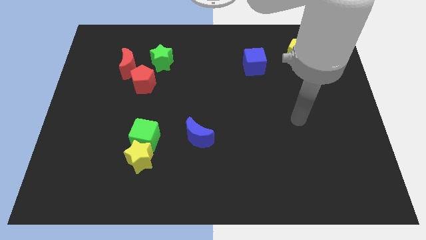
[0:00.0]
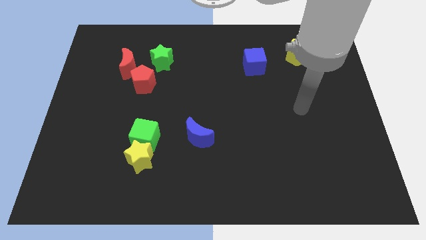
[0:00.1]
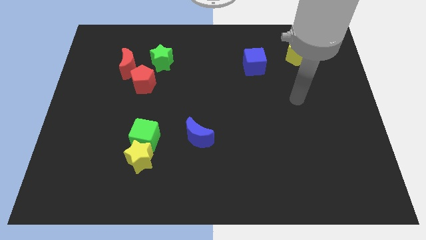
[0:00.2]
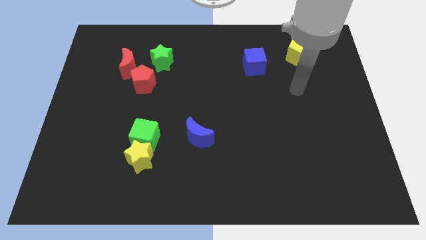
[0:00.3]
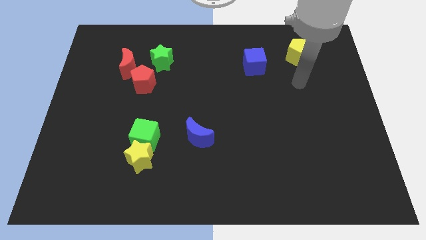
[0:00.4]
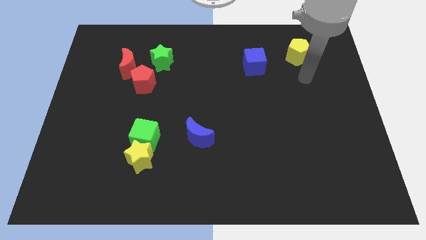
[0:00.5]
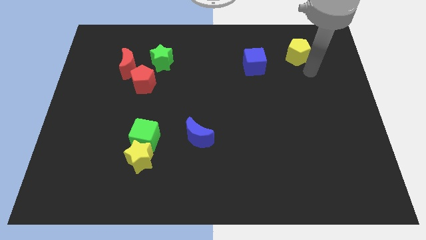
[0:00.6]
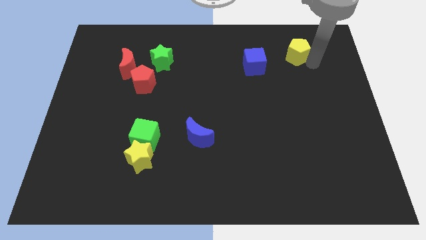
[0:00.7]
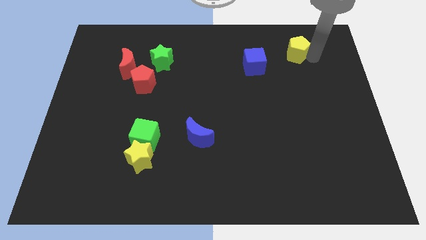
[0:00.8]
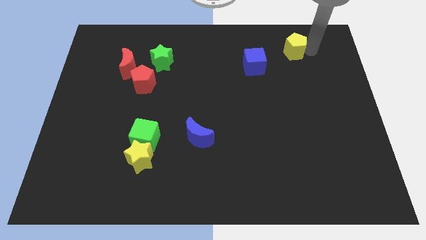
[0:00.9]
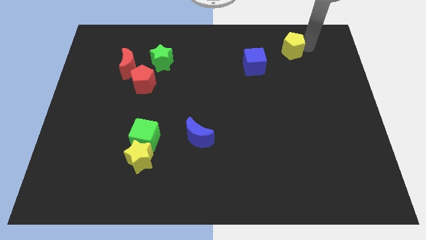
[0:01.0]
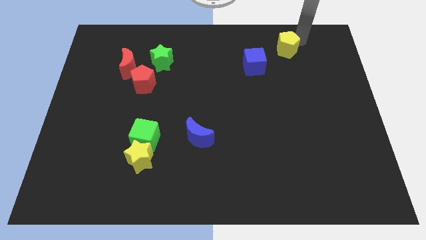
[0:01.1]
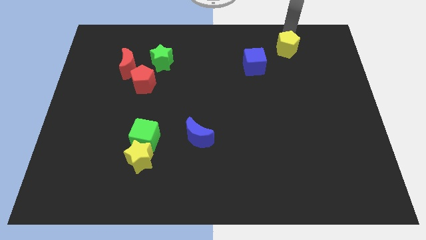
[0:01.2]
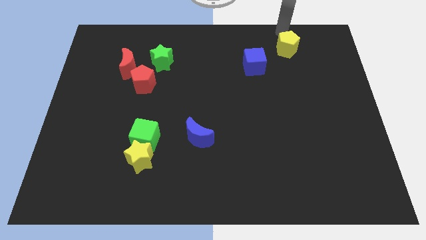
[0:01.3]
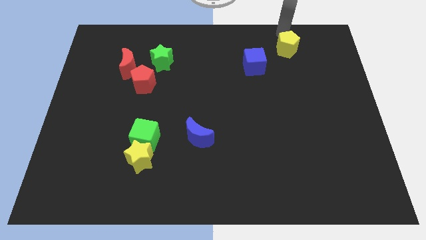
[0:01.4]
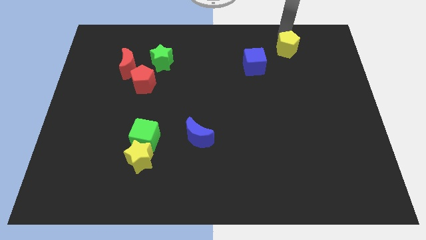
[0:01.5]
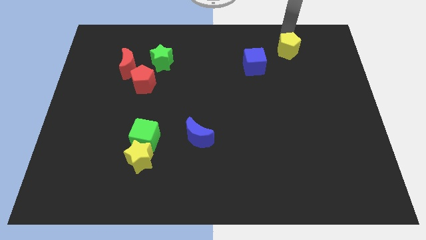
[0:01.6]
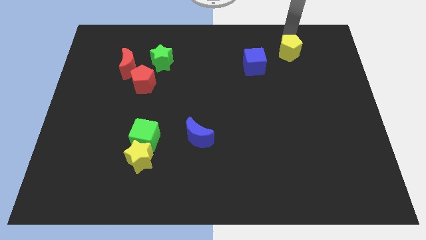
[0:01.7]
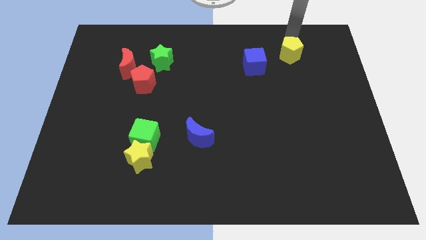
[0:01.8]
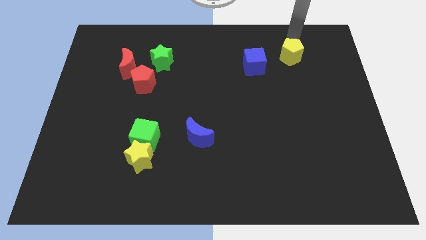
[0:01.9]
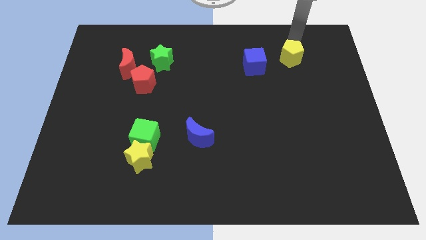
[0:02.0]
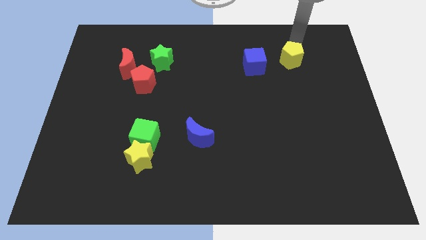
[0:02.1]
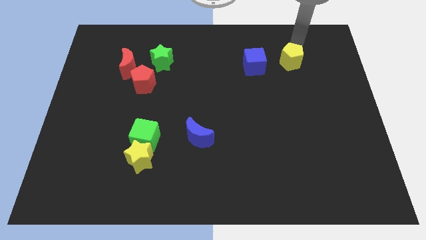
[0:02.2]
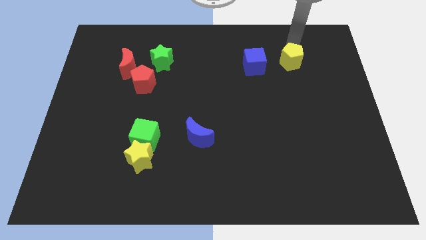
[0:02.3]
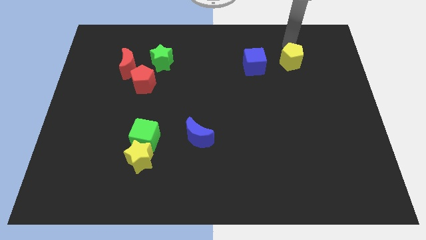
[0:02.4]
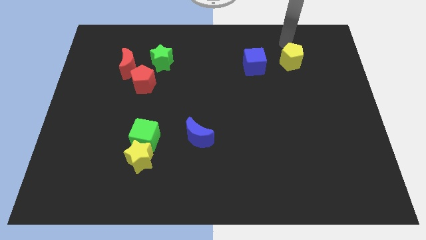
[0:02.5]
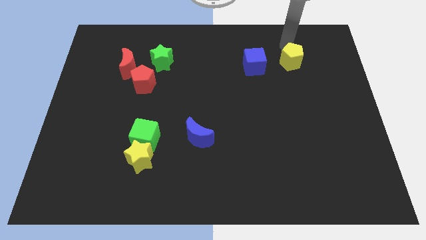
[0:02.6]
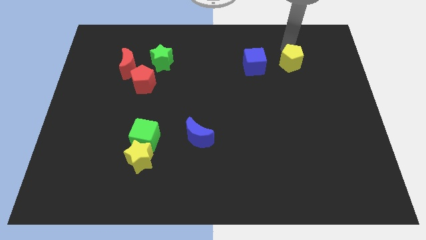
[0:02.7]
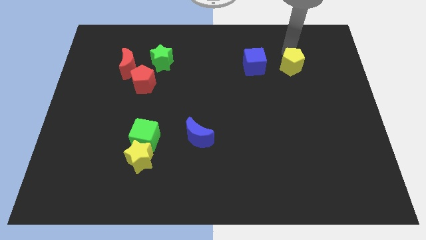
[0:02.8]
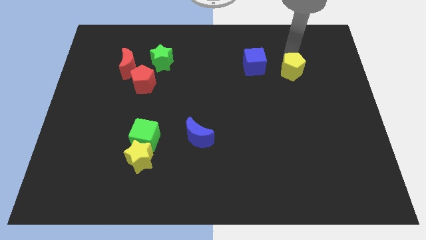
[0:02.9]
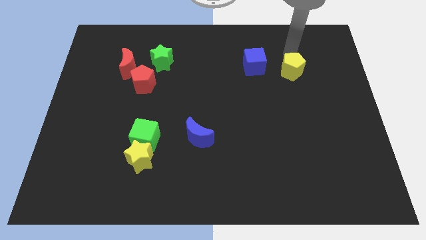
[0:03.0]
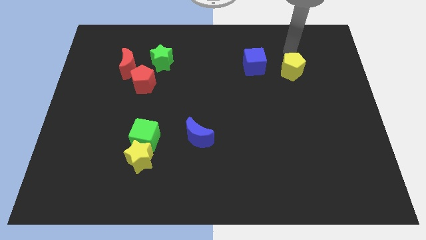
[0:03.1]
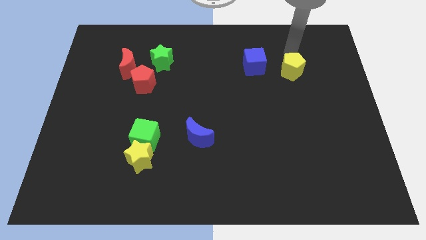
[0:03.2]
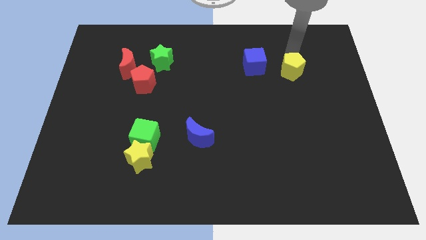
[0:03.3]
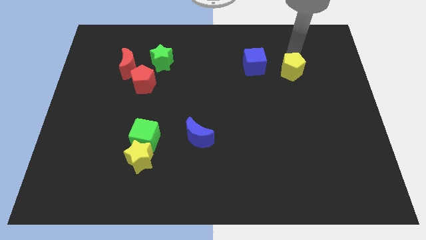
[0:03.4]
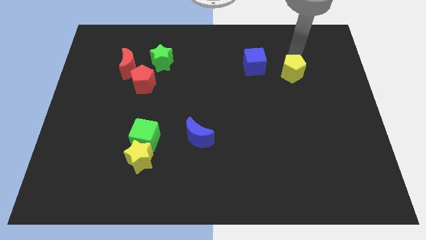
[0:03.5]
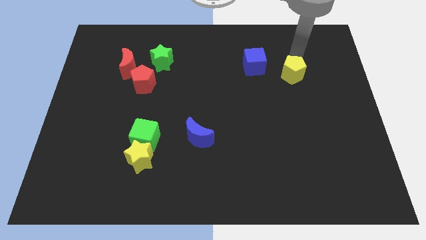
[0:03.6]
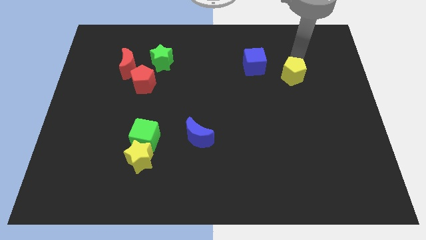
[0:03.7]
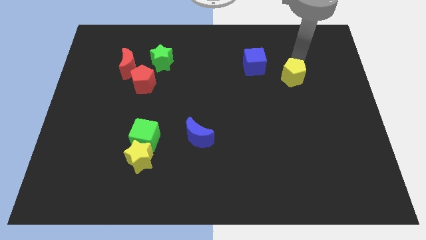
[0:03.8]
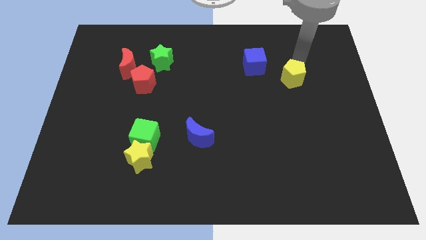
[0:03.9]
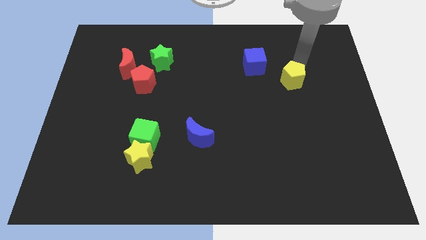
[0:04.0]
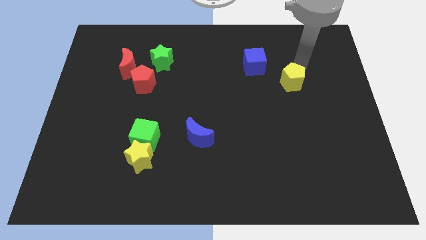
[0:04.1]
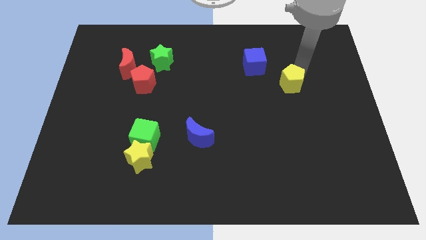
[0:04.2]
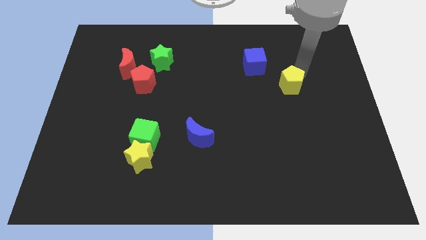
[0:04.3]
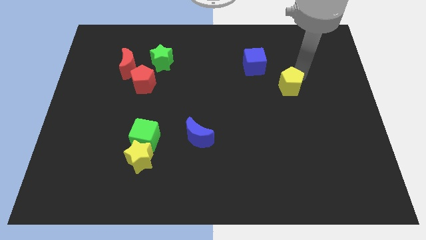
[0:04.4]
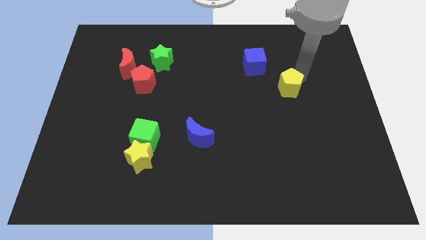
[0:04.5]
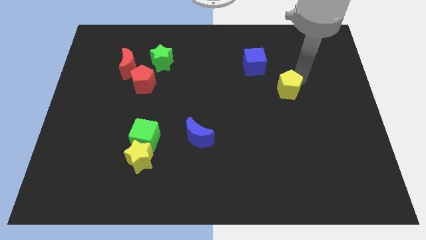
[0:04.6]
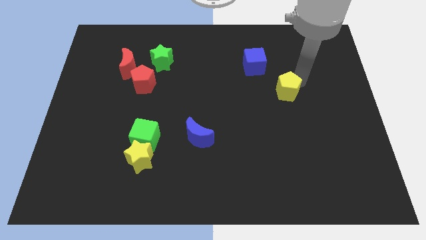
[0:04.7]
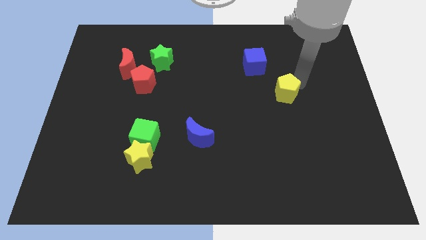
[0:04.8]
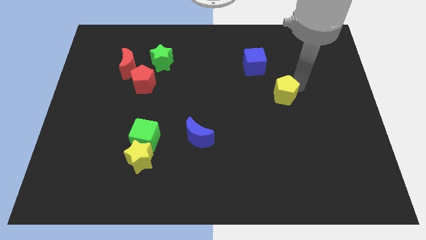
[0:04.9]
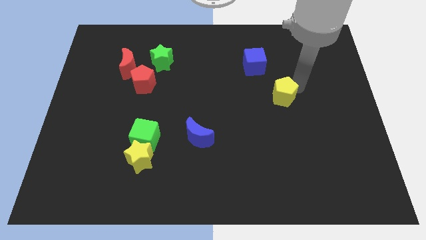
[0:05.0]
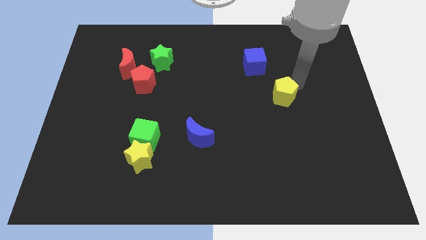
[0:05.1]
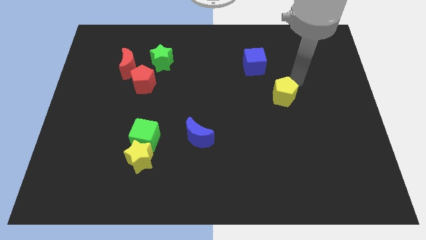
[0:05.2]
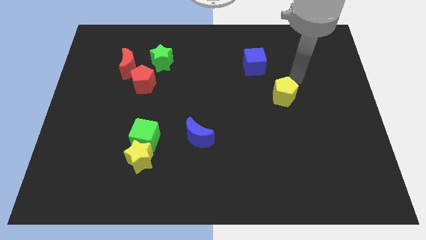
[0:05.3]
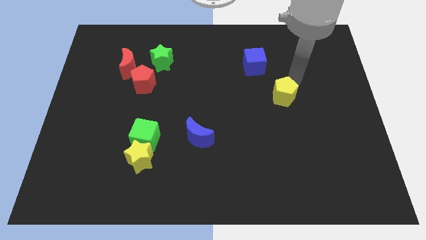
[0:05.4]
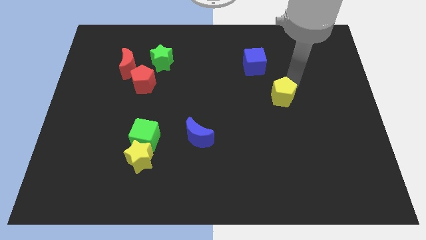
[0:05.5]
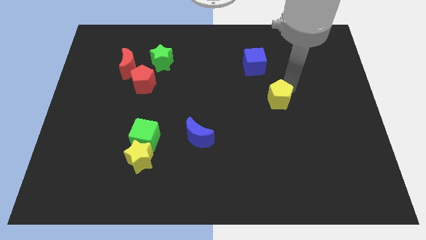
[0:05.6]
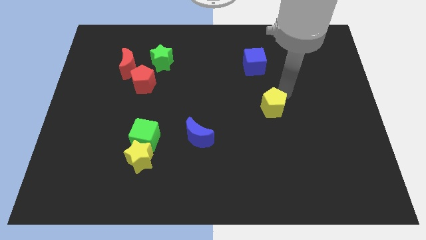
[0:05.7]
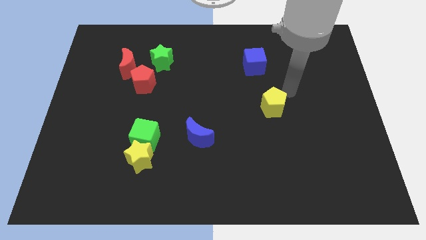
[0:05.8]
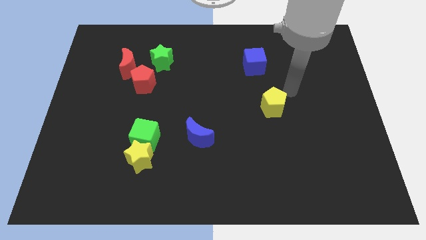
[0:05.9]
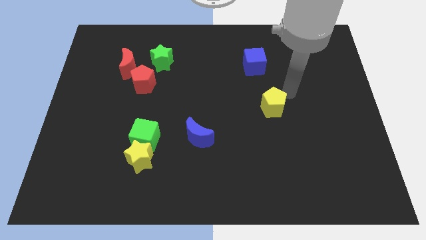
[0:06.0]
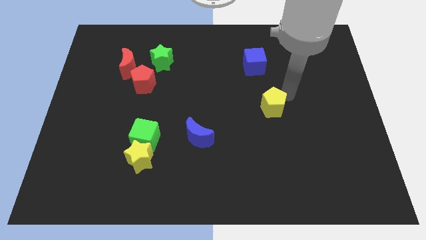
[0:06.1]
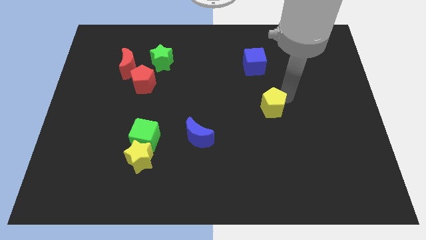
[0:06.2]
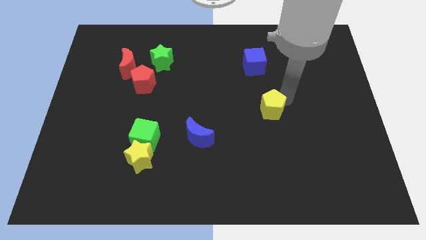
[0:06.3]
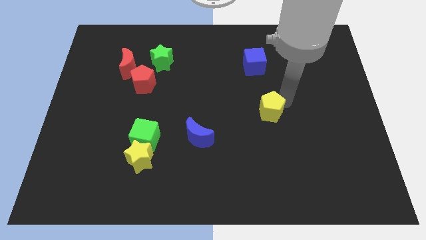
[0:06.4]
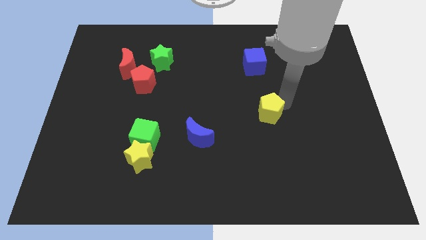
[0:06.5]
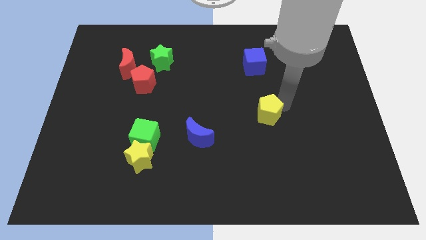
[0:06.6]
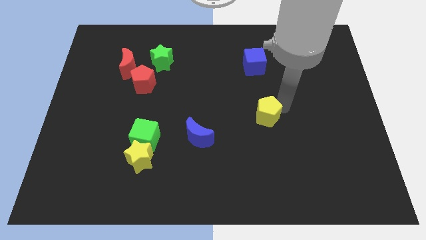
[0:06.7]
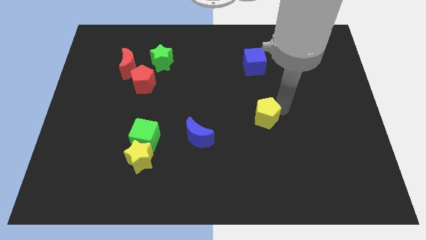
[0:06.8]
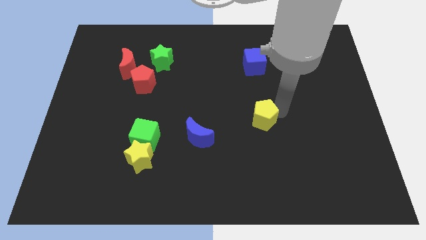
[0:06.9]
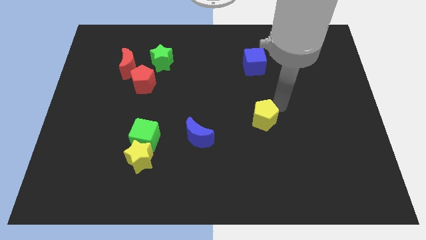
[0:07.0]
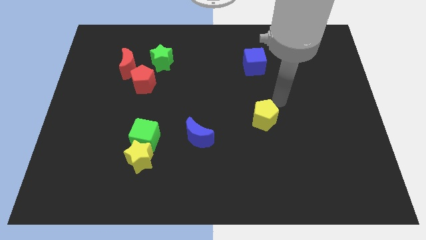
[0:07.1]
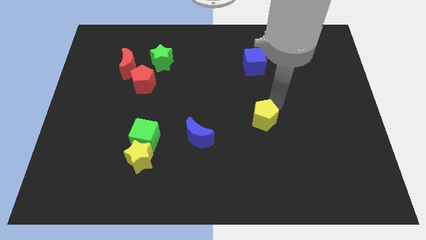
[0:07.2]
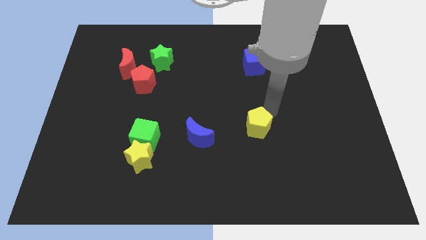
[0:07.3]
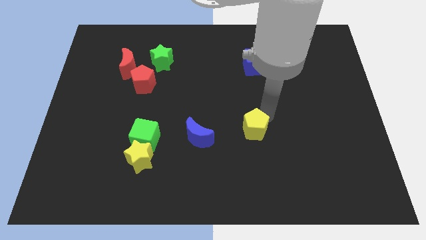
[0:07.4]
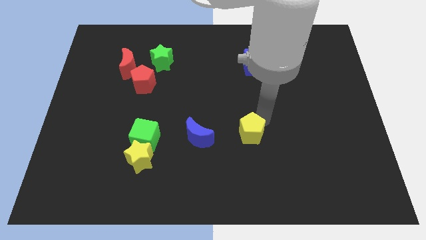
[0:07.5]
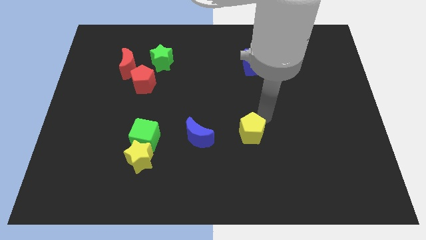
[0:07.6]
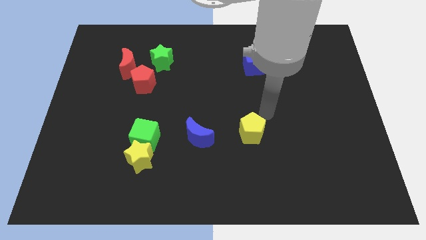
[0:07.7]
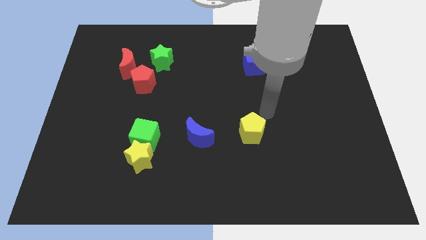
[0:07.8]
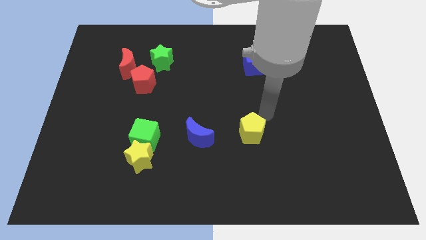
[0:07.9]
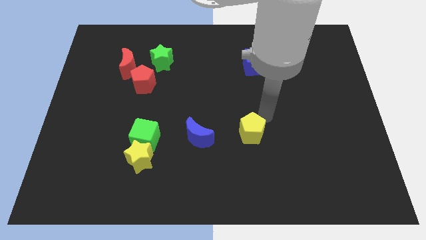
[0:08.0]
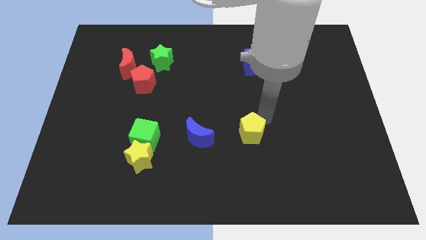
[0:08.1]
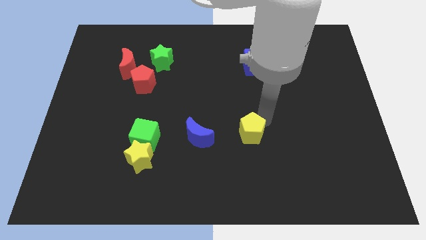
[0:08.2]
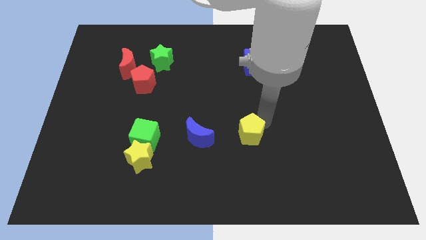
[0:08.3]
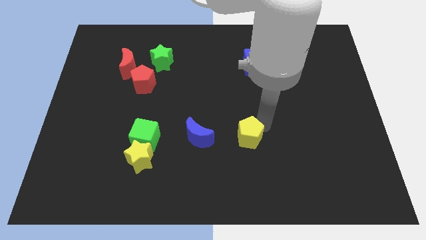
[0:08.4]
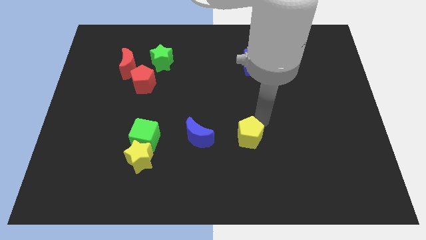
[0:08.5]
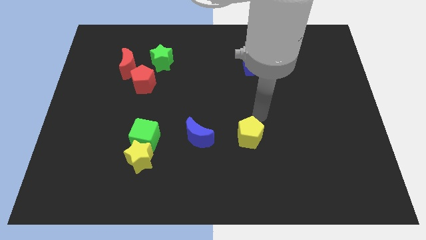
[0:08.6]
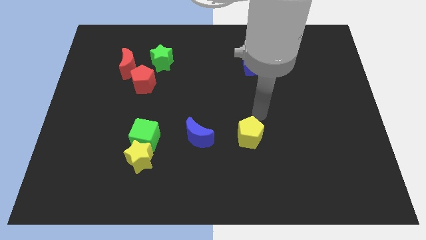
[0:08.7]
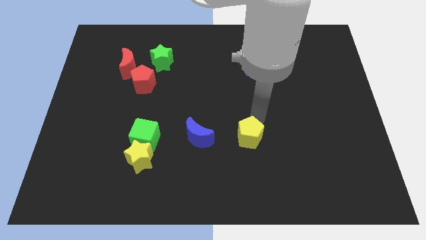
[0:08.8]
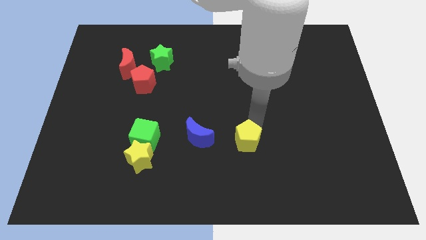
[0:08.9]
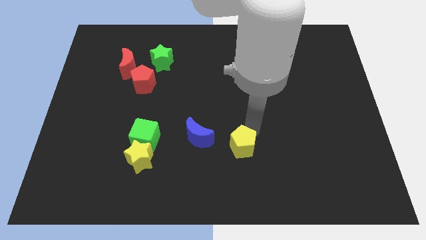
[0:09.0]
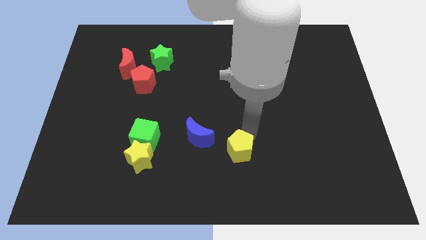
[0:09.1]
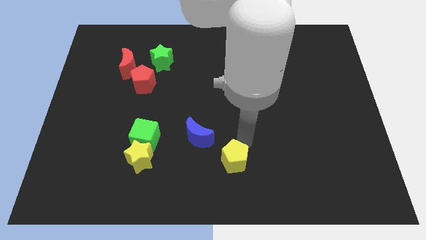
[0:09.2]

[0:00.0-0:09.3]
put the yellow pentagon to the bottom side
